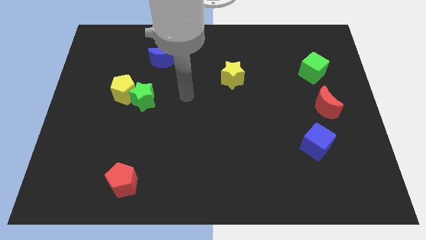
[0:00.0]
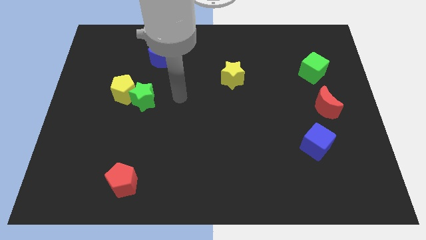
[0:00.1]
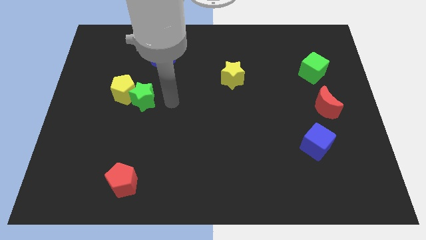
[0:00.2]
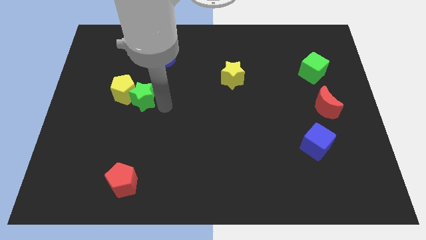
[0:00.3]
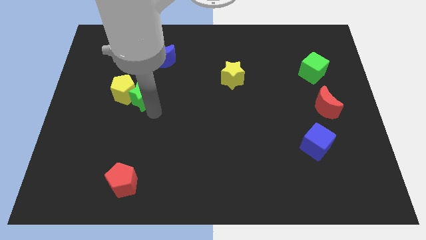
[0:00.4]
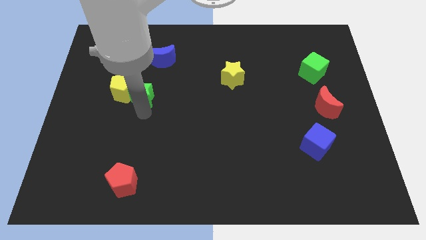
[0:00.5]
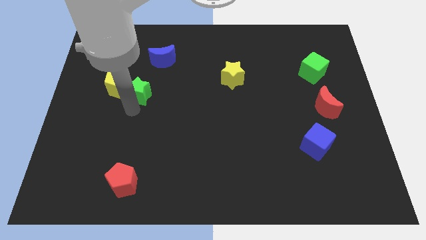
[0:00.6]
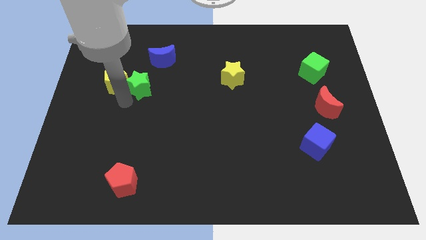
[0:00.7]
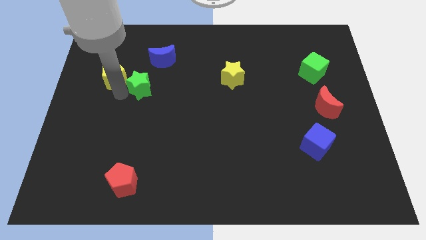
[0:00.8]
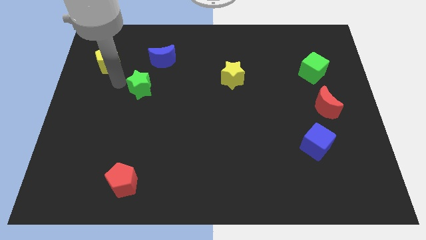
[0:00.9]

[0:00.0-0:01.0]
separate the green star from the yellow pentagon

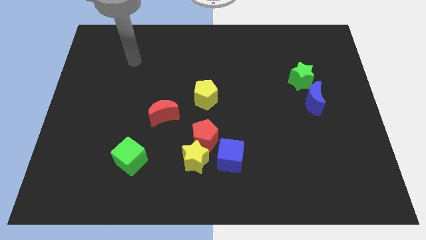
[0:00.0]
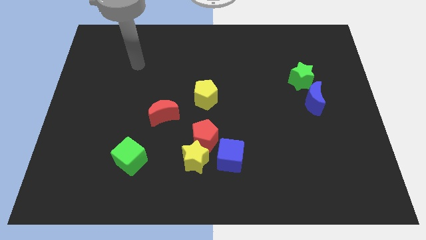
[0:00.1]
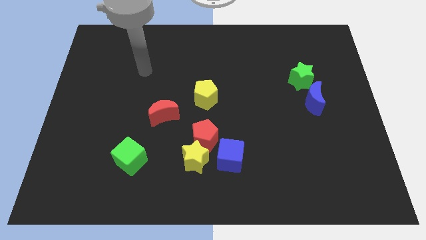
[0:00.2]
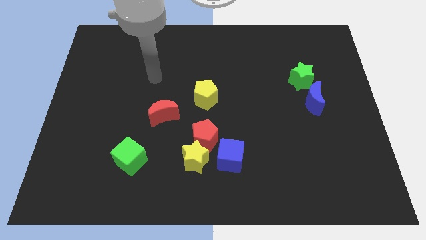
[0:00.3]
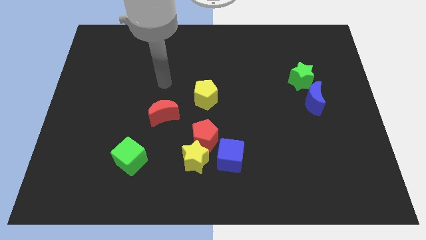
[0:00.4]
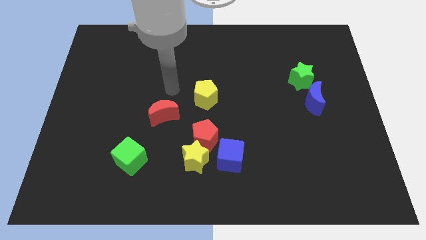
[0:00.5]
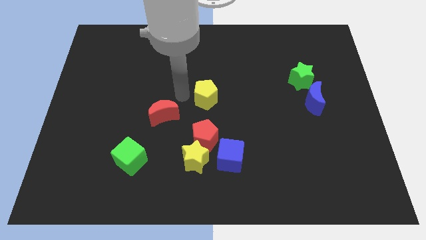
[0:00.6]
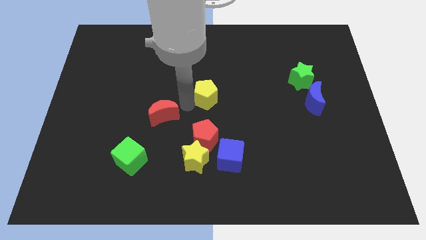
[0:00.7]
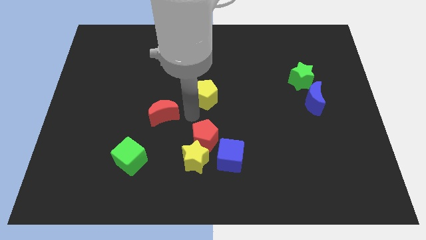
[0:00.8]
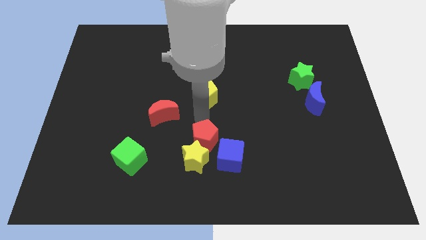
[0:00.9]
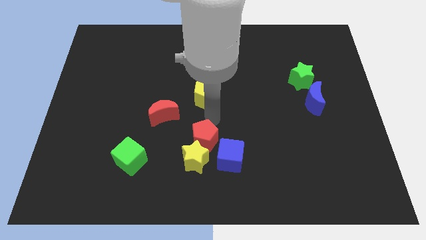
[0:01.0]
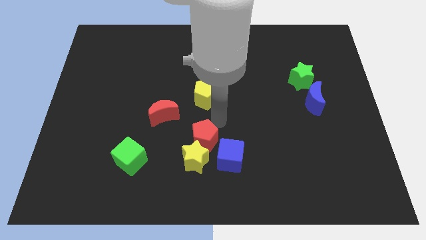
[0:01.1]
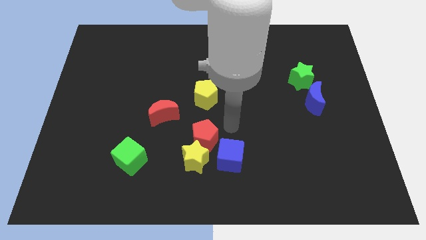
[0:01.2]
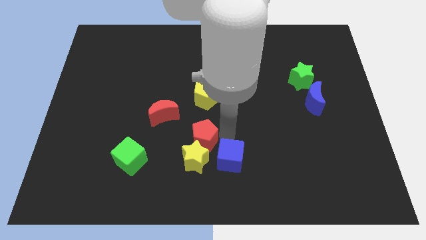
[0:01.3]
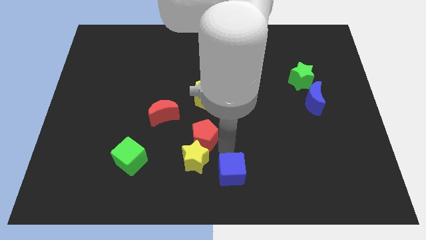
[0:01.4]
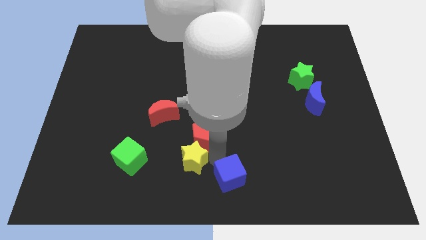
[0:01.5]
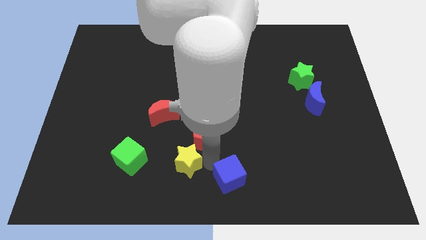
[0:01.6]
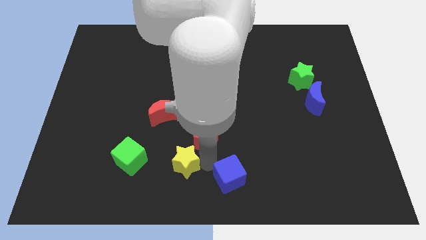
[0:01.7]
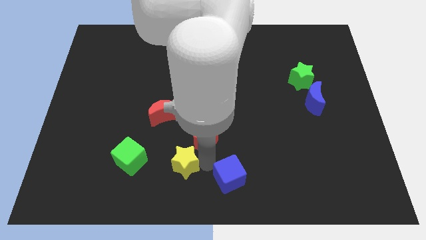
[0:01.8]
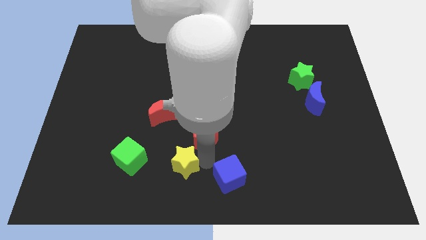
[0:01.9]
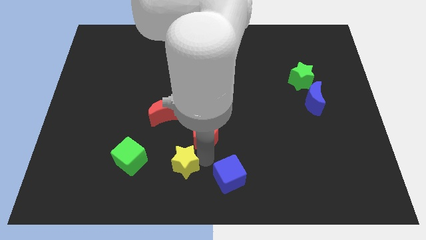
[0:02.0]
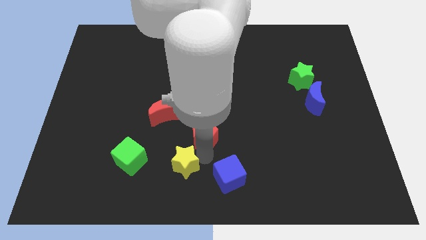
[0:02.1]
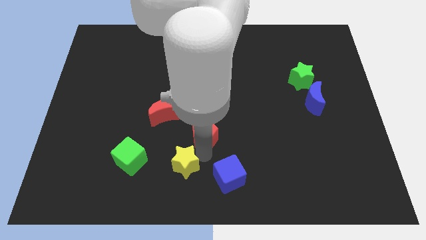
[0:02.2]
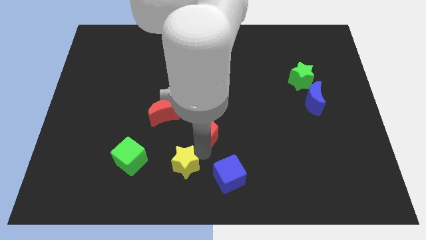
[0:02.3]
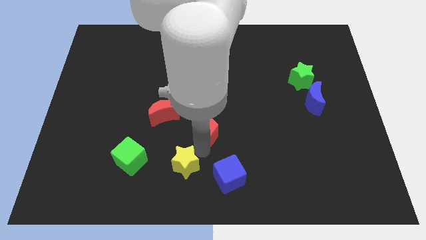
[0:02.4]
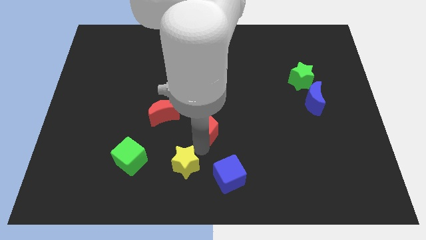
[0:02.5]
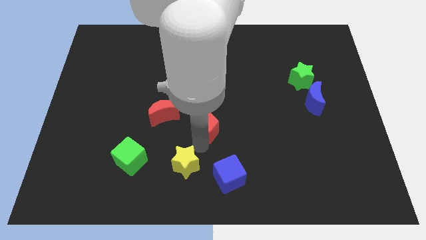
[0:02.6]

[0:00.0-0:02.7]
pull the red pentagon apart from the yellow star and blue cube

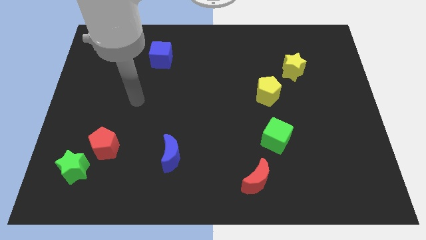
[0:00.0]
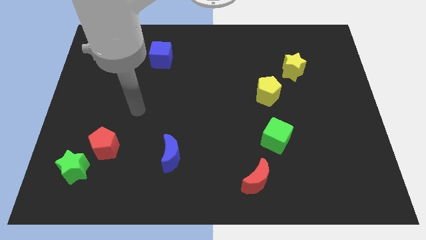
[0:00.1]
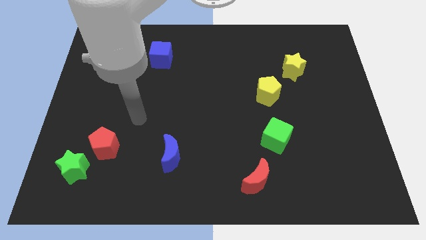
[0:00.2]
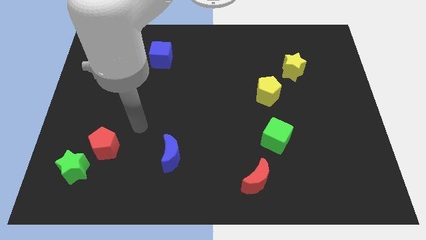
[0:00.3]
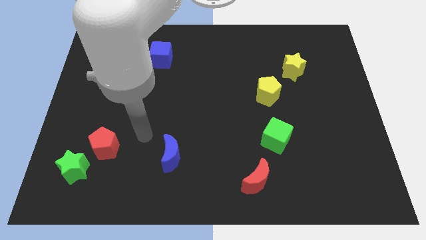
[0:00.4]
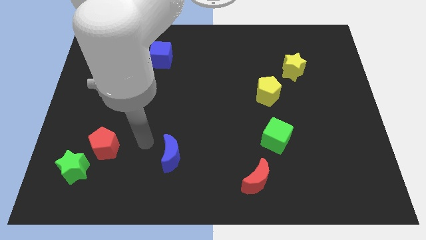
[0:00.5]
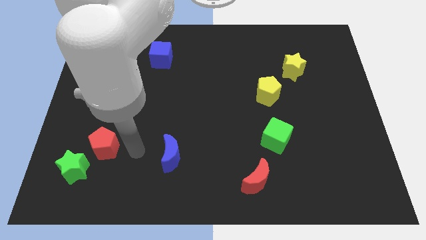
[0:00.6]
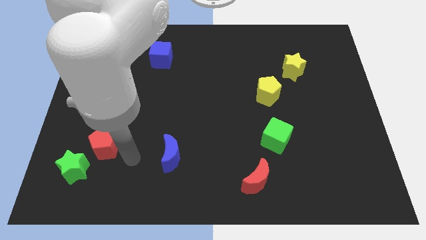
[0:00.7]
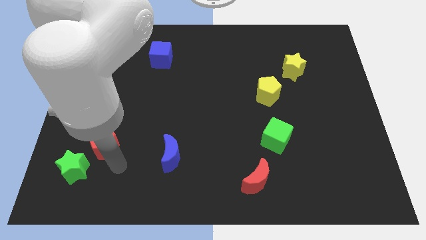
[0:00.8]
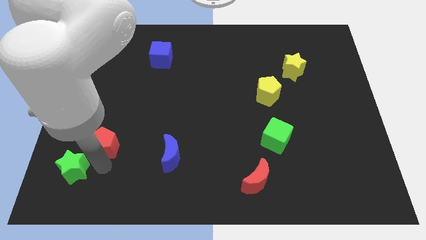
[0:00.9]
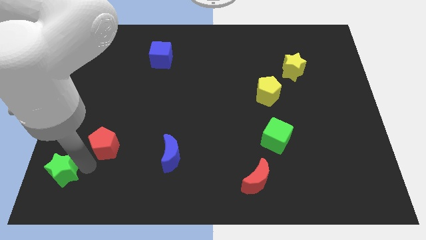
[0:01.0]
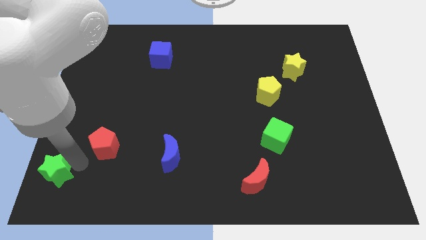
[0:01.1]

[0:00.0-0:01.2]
move the red pentagon away from the green star

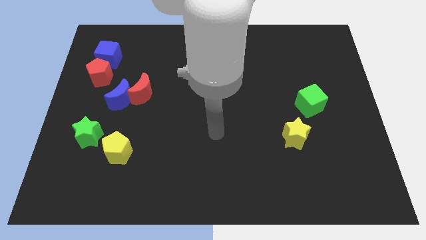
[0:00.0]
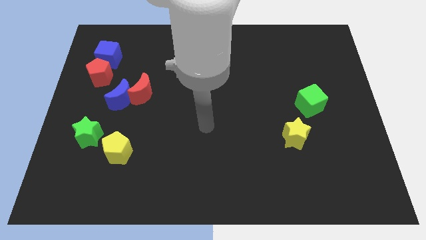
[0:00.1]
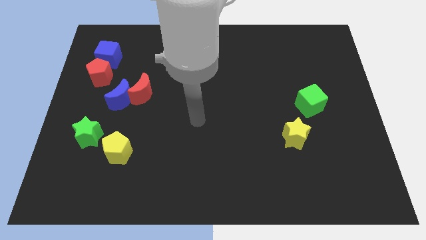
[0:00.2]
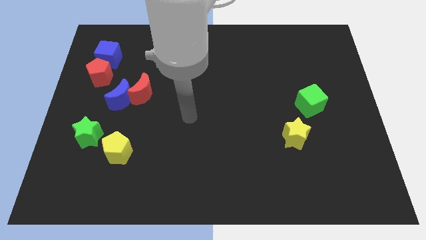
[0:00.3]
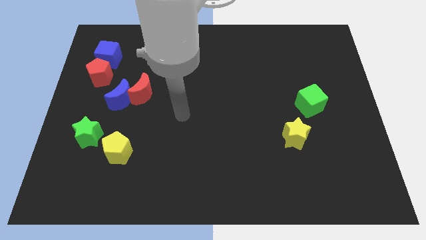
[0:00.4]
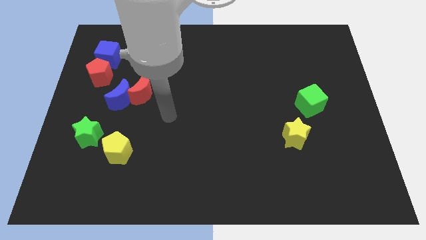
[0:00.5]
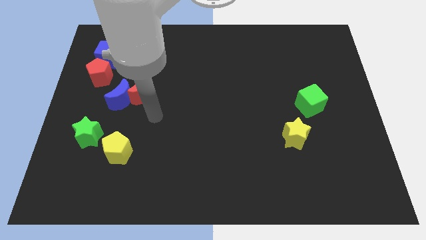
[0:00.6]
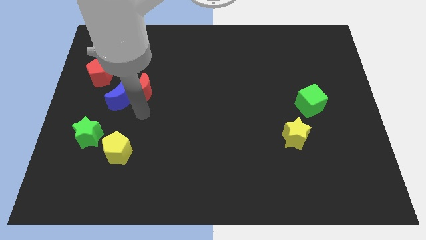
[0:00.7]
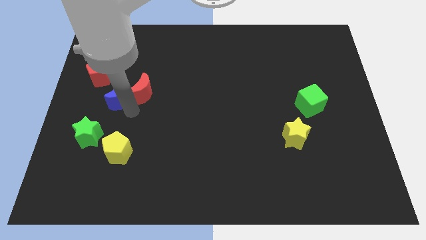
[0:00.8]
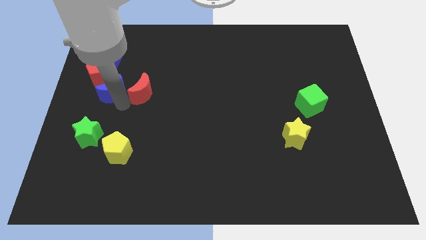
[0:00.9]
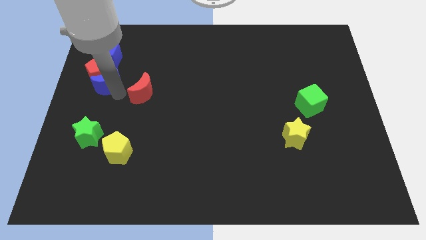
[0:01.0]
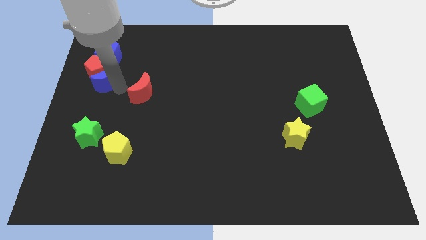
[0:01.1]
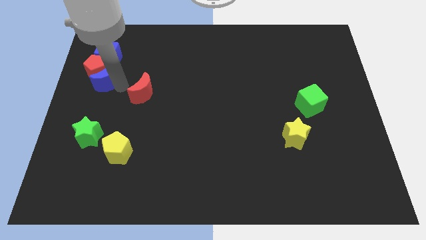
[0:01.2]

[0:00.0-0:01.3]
separate the red moon from the blue moon

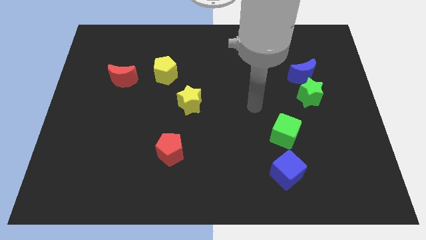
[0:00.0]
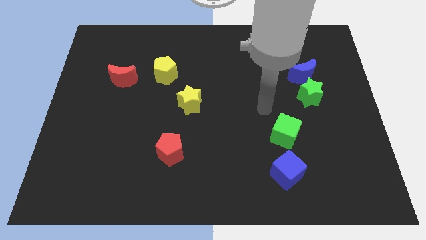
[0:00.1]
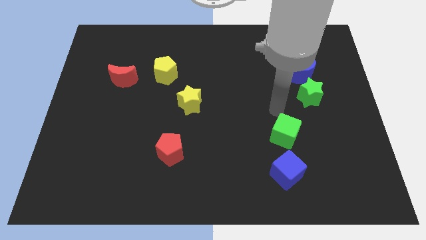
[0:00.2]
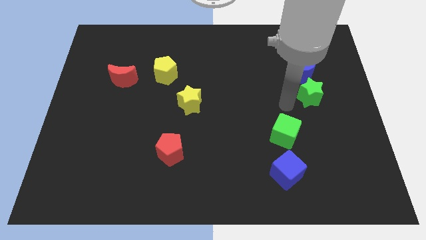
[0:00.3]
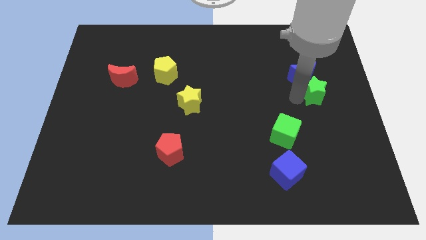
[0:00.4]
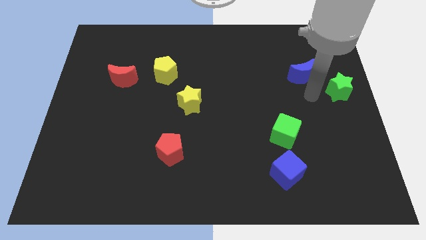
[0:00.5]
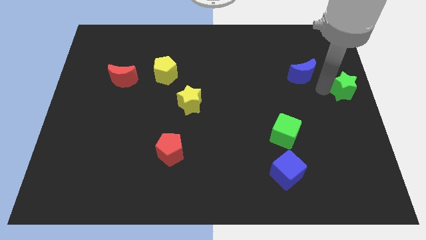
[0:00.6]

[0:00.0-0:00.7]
pull the blue moon apart from the green star

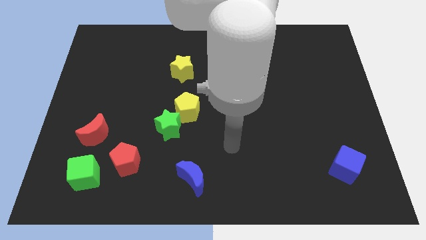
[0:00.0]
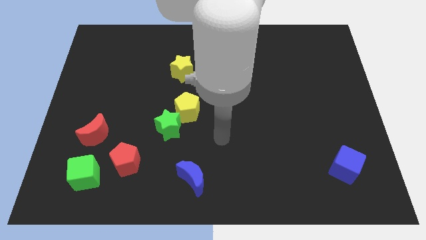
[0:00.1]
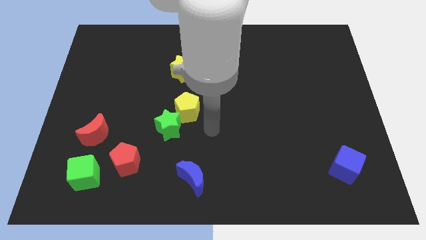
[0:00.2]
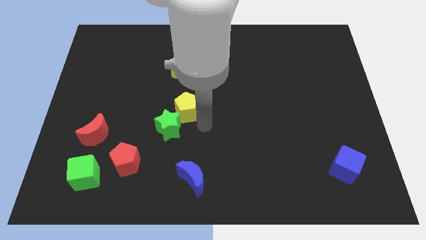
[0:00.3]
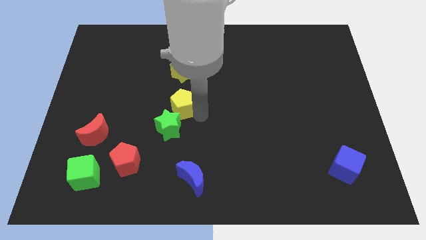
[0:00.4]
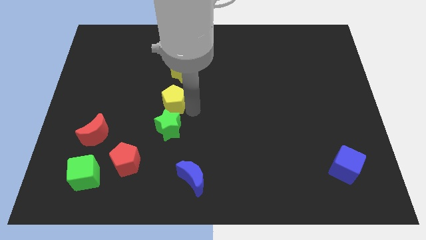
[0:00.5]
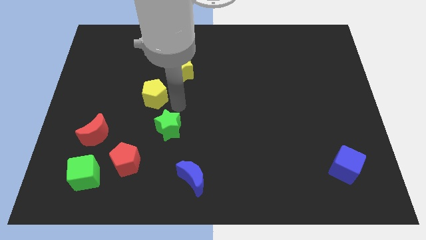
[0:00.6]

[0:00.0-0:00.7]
pull the green star apart from the yellow pentagon

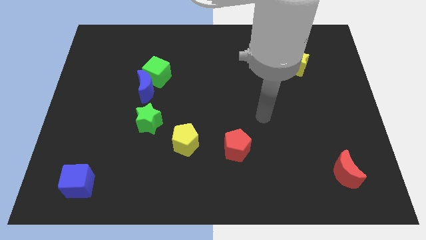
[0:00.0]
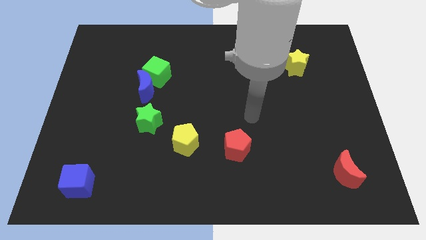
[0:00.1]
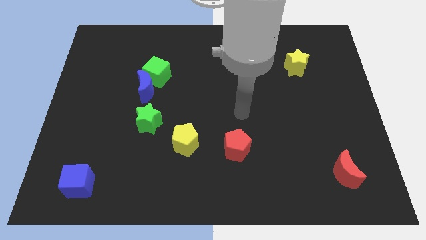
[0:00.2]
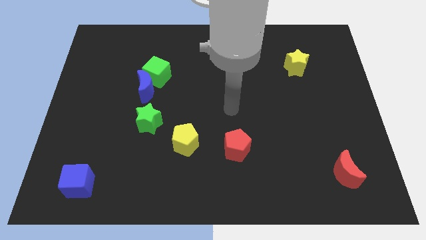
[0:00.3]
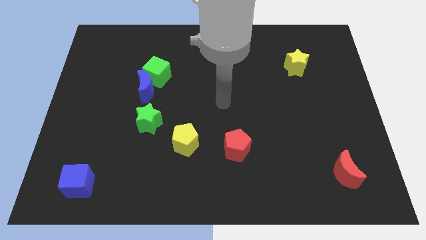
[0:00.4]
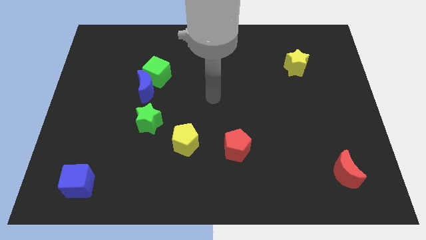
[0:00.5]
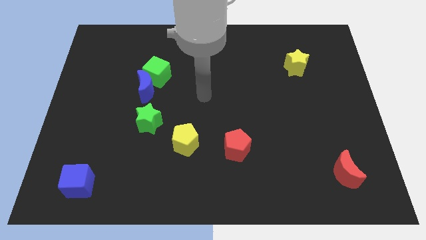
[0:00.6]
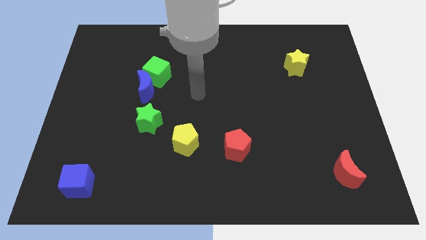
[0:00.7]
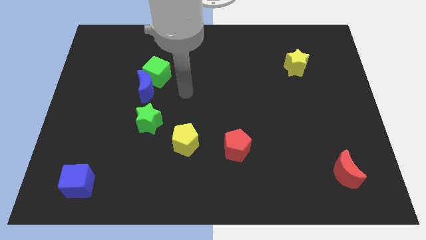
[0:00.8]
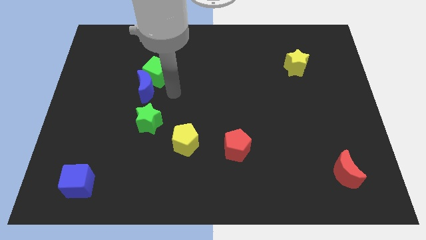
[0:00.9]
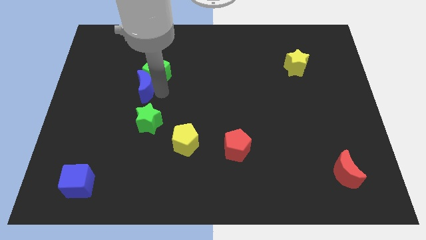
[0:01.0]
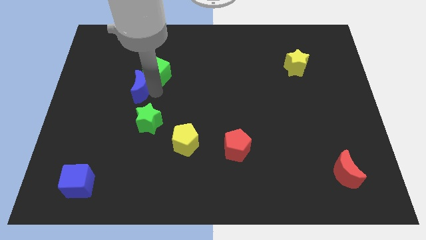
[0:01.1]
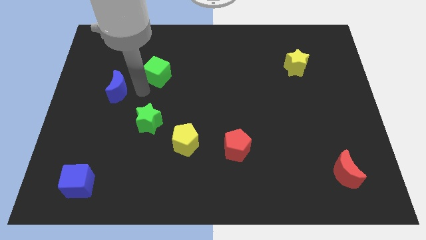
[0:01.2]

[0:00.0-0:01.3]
pull the green cube apart from the blue moon

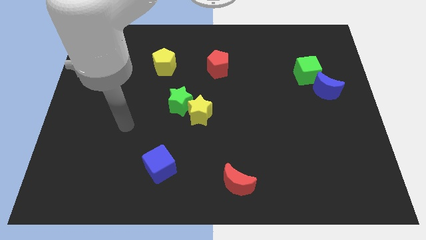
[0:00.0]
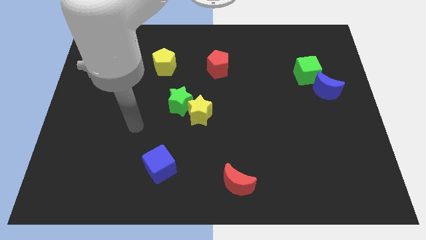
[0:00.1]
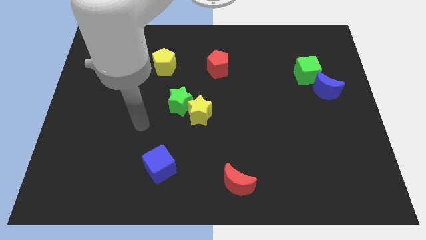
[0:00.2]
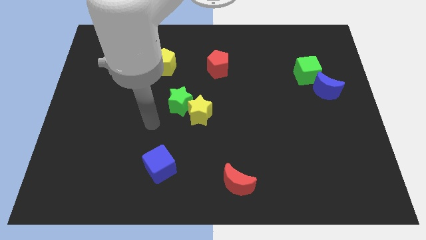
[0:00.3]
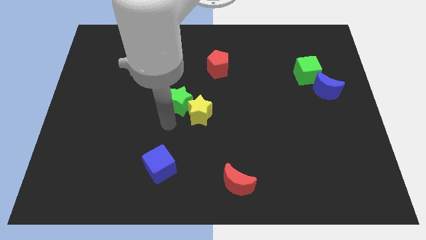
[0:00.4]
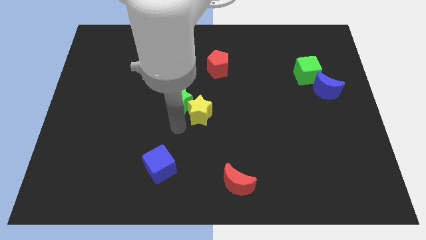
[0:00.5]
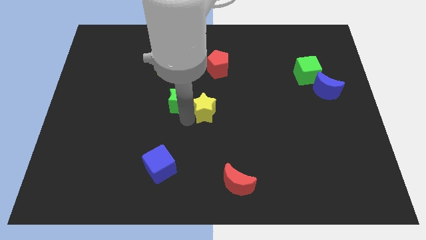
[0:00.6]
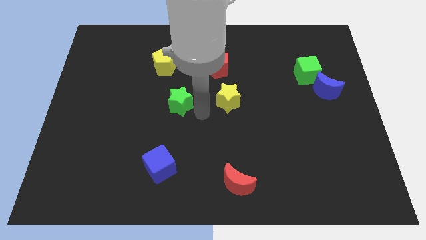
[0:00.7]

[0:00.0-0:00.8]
move the green star away from the yellow star
